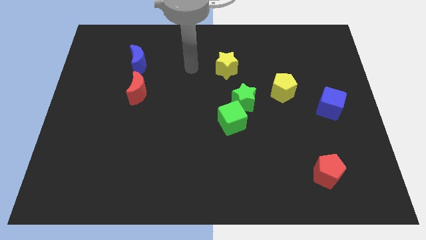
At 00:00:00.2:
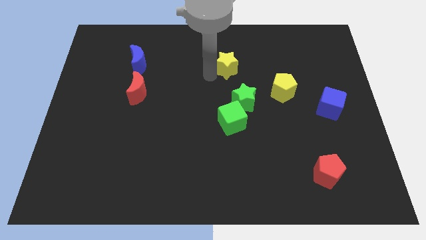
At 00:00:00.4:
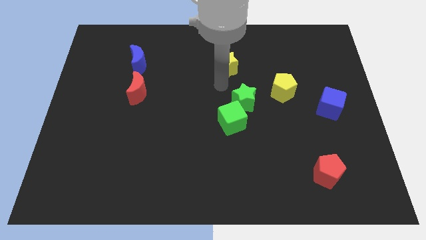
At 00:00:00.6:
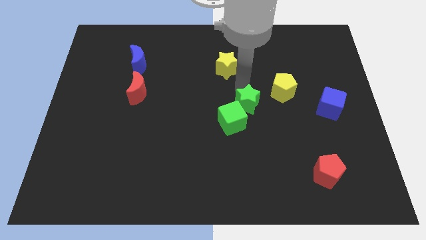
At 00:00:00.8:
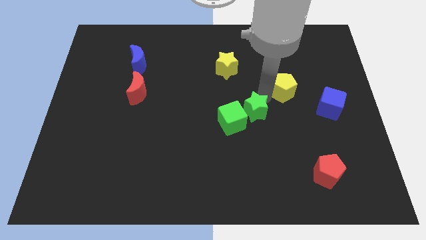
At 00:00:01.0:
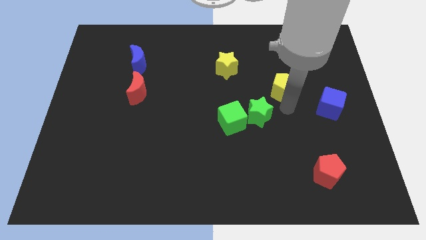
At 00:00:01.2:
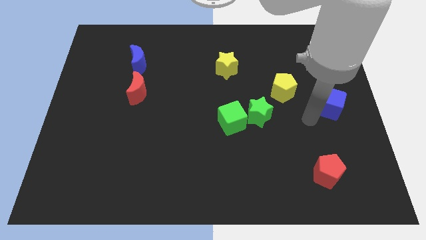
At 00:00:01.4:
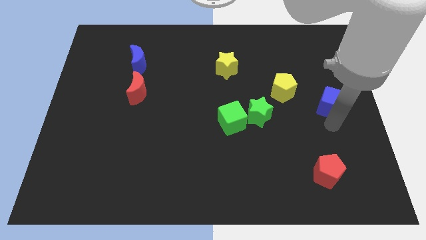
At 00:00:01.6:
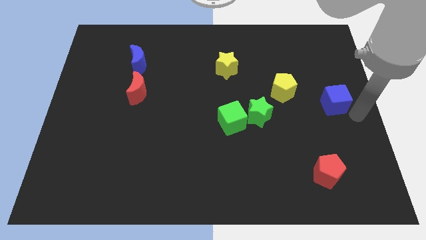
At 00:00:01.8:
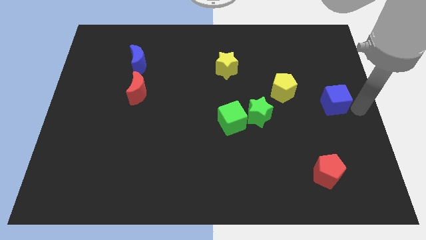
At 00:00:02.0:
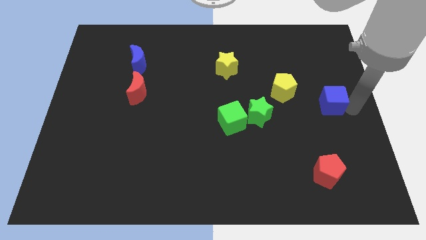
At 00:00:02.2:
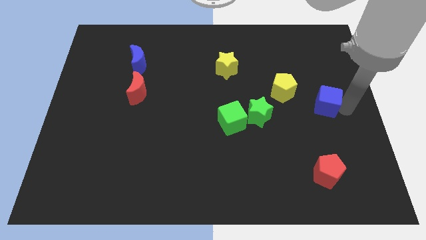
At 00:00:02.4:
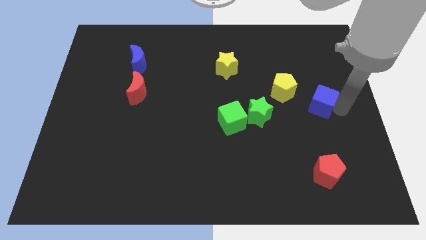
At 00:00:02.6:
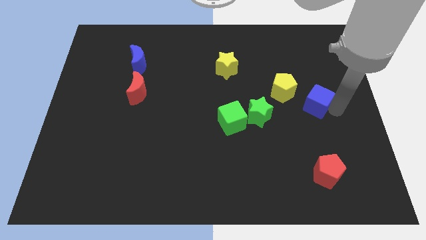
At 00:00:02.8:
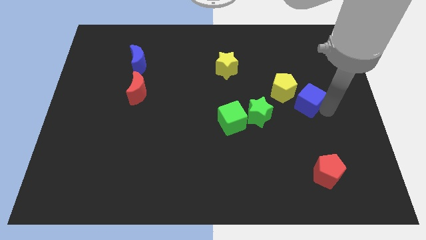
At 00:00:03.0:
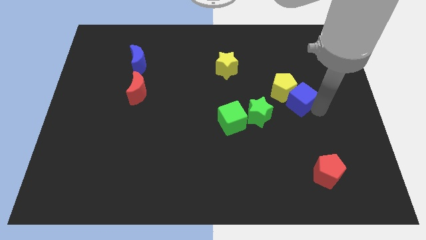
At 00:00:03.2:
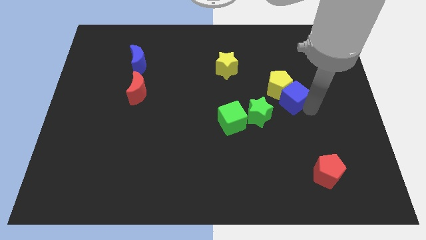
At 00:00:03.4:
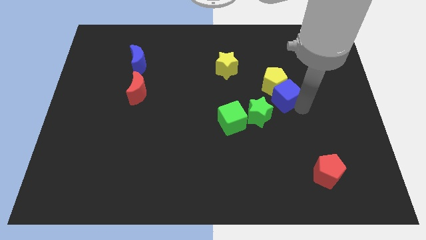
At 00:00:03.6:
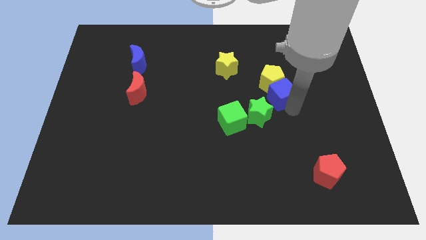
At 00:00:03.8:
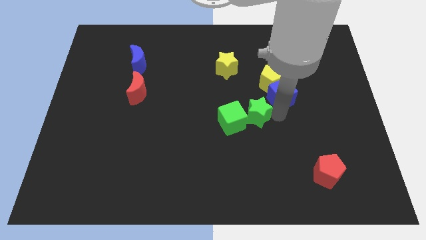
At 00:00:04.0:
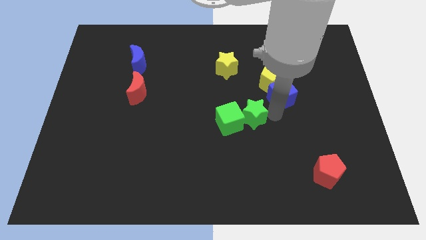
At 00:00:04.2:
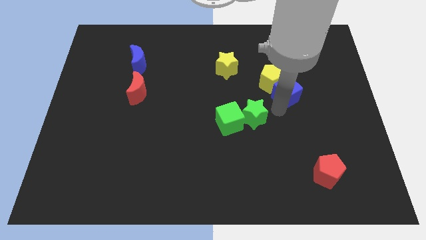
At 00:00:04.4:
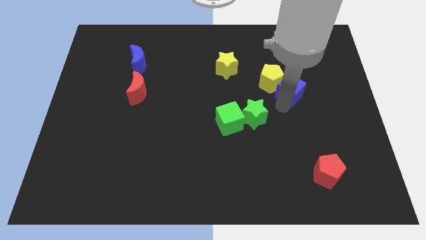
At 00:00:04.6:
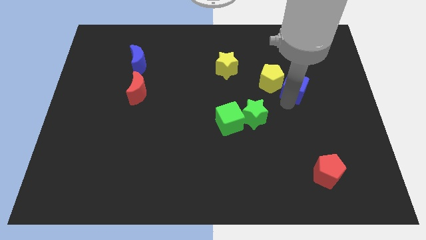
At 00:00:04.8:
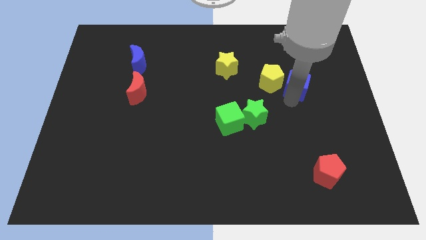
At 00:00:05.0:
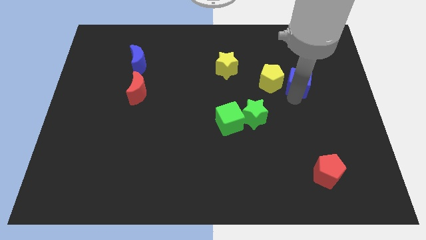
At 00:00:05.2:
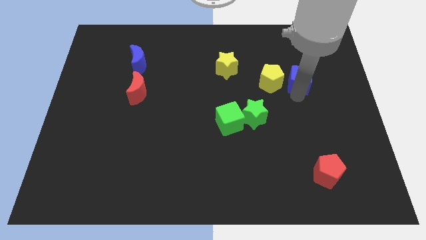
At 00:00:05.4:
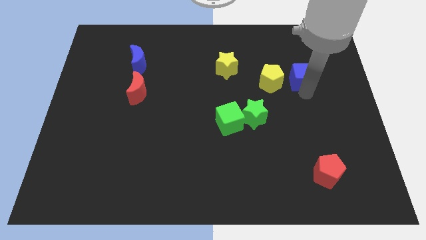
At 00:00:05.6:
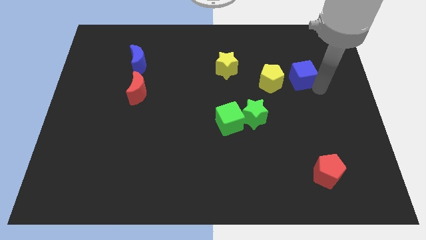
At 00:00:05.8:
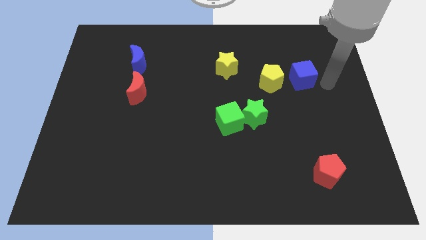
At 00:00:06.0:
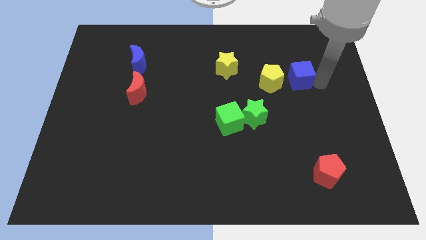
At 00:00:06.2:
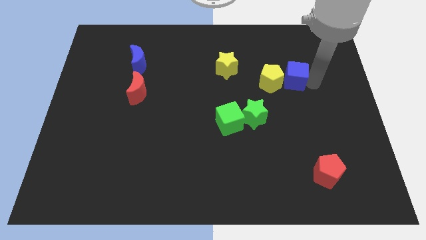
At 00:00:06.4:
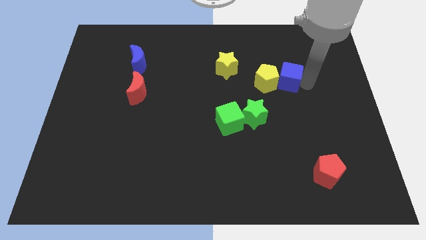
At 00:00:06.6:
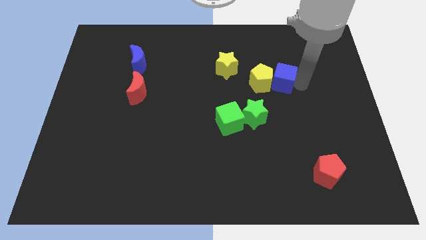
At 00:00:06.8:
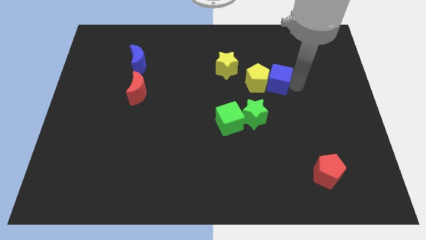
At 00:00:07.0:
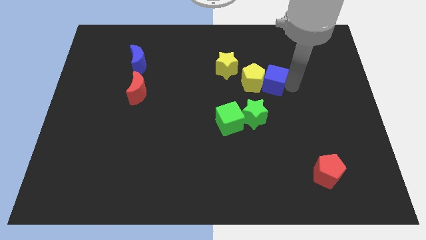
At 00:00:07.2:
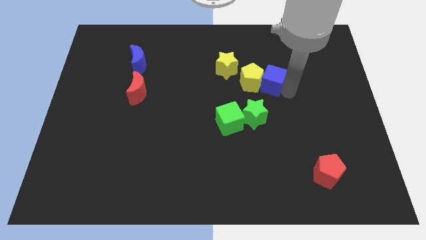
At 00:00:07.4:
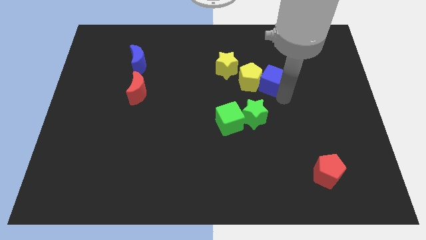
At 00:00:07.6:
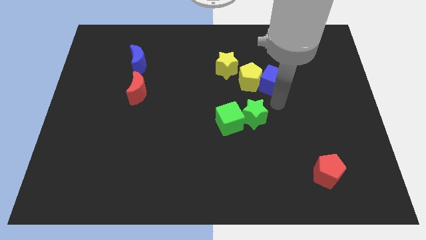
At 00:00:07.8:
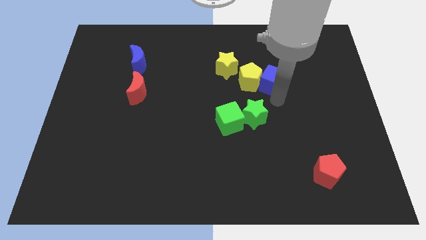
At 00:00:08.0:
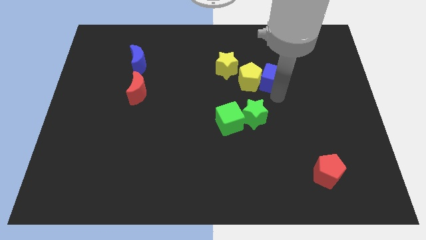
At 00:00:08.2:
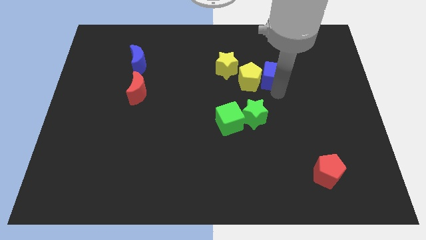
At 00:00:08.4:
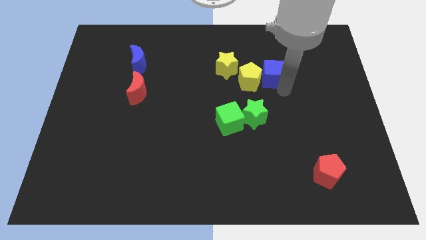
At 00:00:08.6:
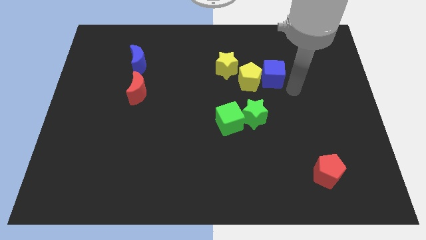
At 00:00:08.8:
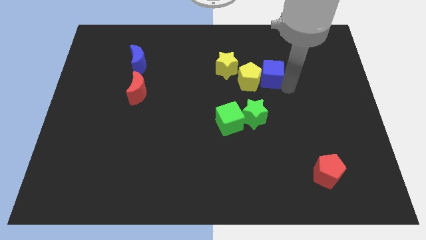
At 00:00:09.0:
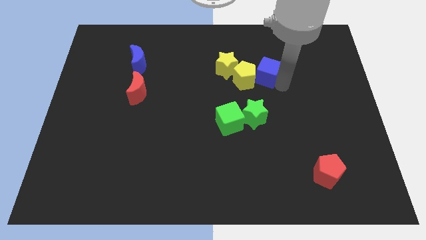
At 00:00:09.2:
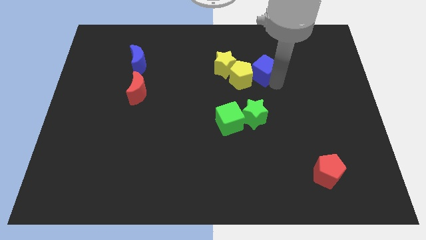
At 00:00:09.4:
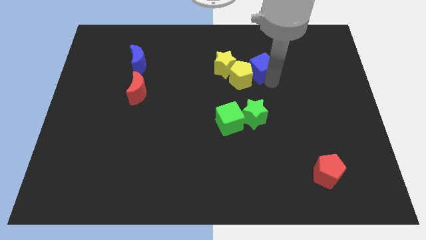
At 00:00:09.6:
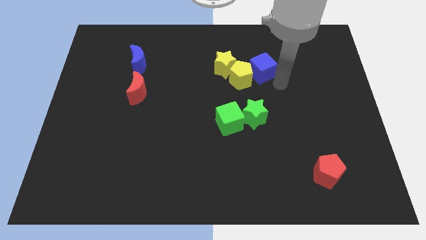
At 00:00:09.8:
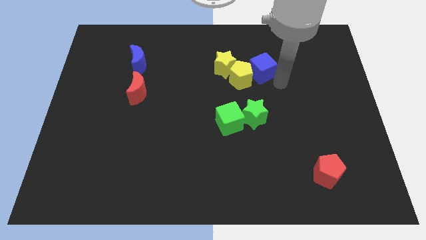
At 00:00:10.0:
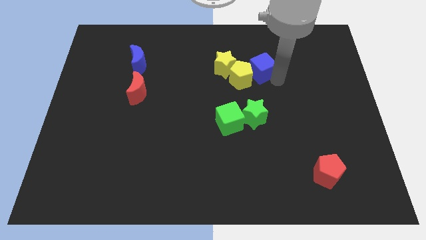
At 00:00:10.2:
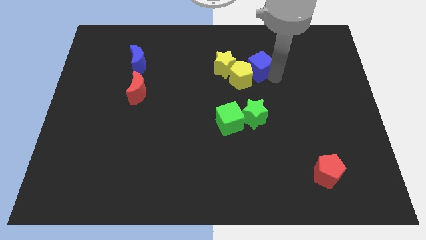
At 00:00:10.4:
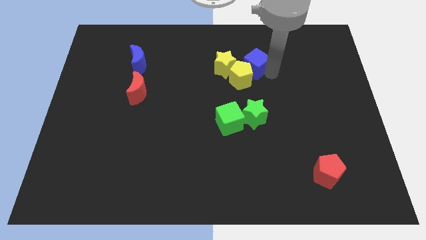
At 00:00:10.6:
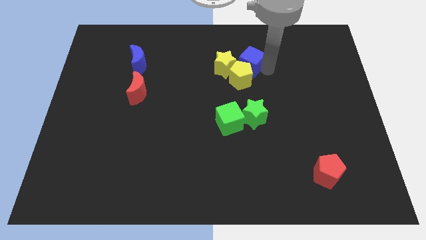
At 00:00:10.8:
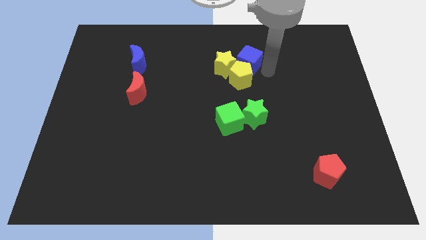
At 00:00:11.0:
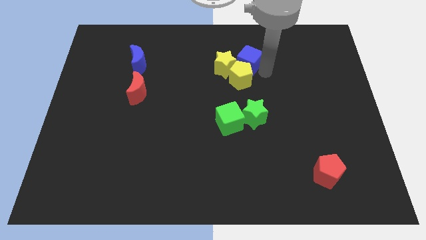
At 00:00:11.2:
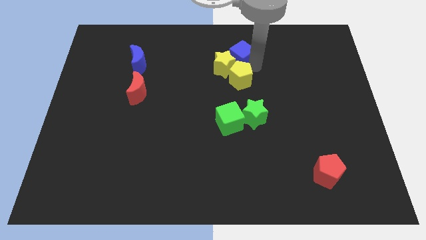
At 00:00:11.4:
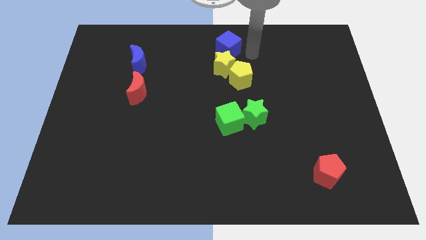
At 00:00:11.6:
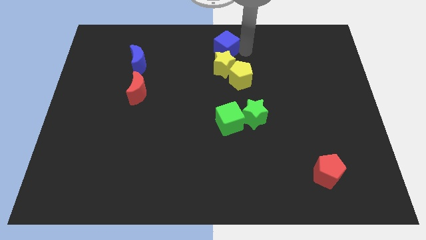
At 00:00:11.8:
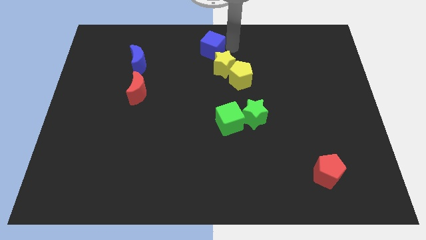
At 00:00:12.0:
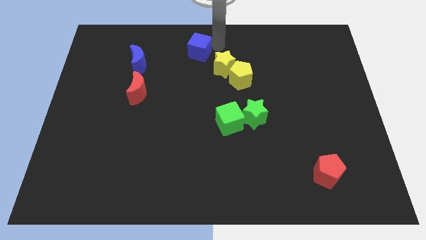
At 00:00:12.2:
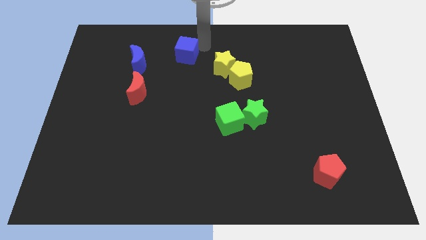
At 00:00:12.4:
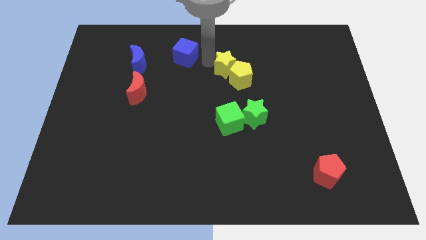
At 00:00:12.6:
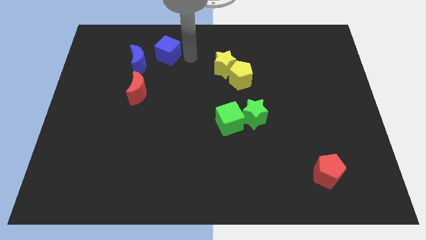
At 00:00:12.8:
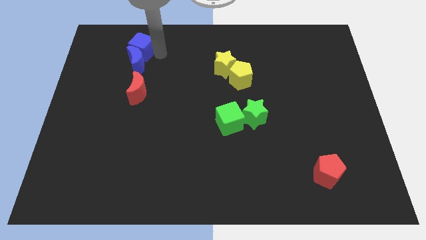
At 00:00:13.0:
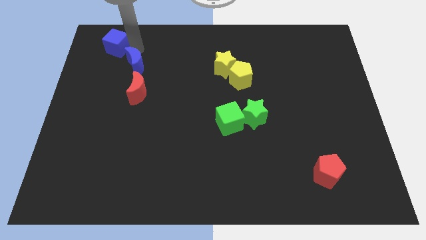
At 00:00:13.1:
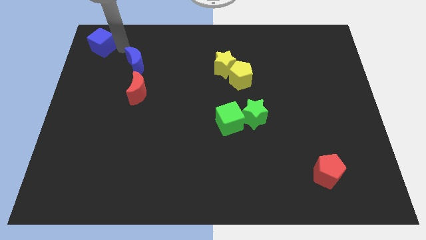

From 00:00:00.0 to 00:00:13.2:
push the blue cube to the upper left corner
